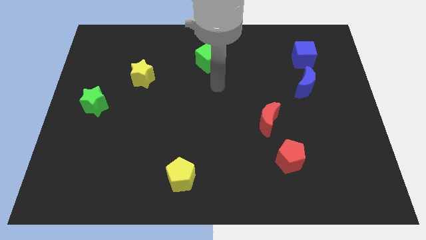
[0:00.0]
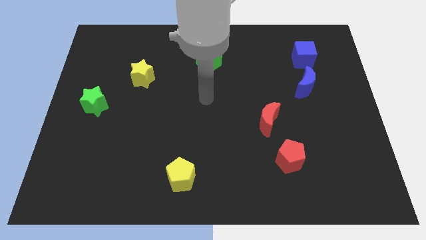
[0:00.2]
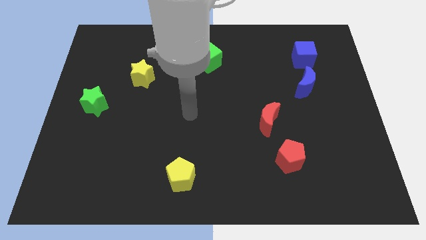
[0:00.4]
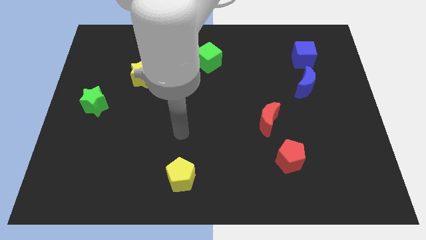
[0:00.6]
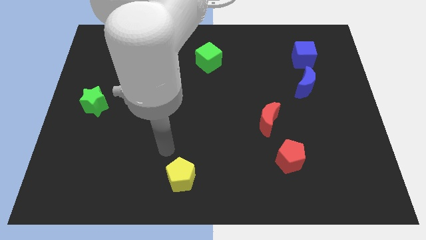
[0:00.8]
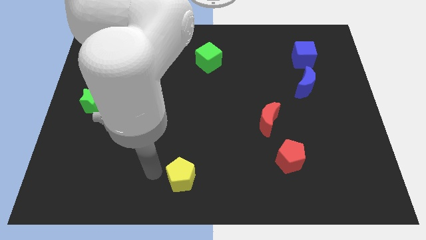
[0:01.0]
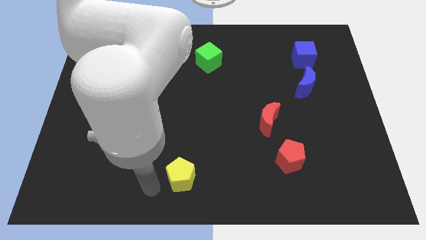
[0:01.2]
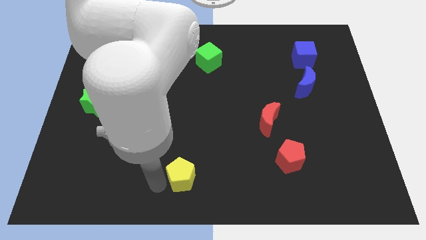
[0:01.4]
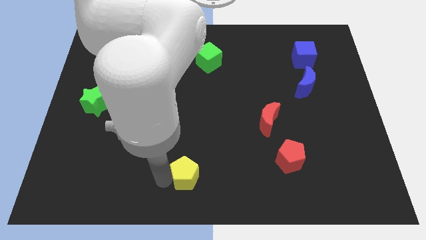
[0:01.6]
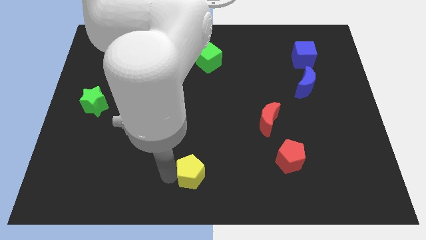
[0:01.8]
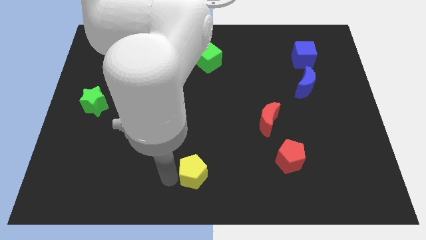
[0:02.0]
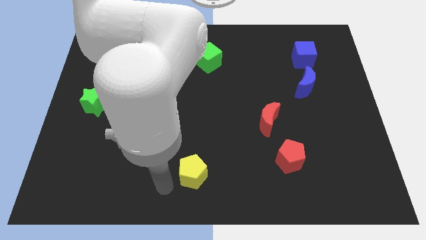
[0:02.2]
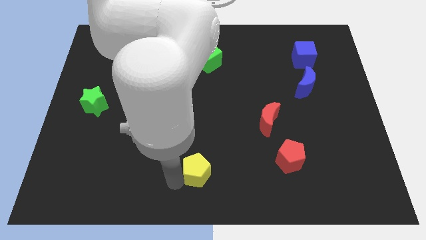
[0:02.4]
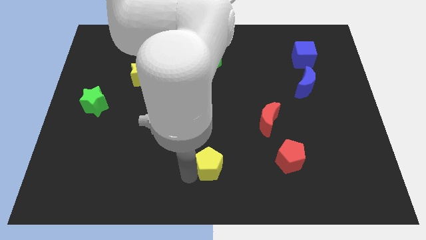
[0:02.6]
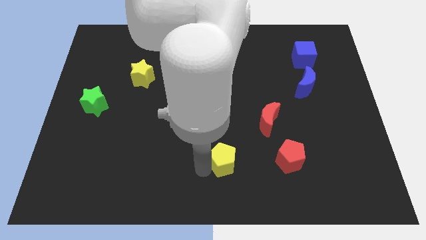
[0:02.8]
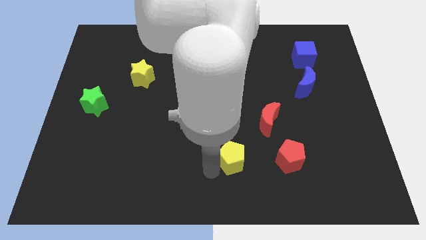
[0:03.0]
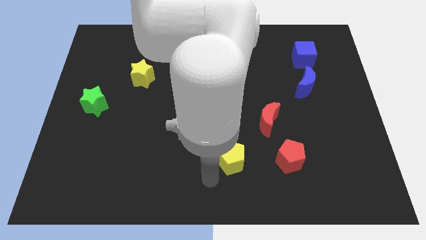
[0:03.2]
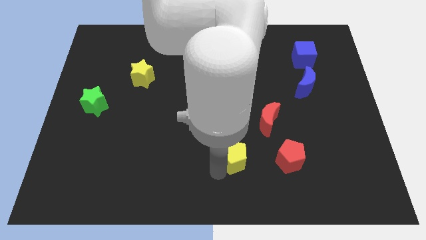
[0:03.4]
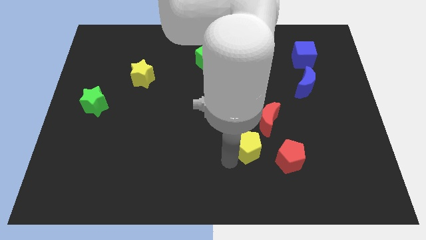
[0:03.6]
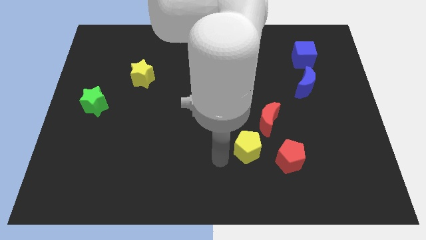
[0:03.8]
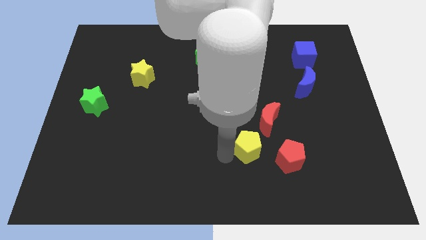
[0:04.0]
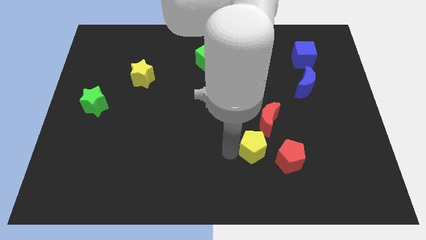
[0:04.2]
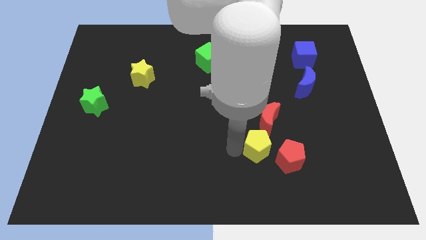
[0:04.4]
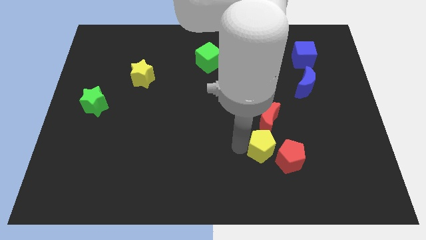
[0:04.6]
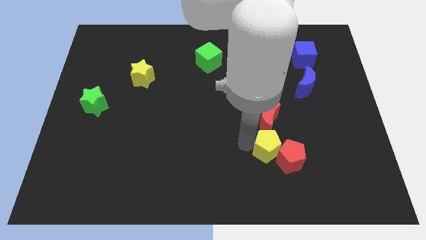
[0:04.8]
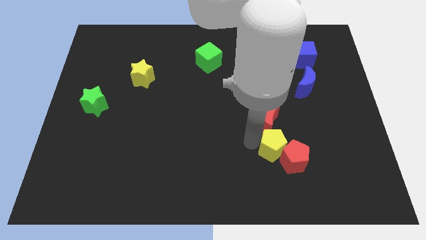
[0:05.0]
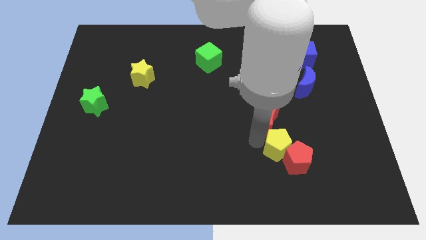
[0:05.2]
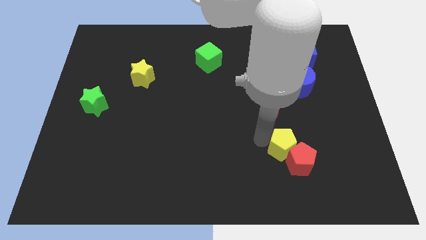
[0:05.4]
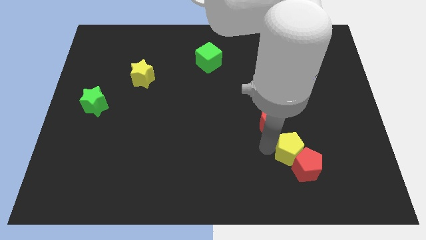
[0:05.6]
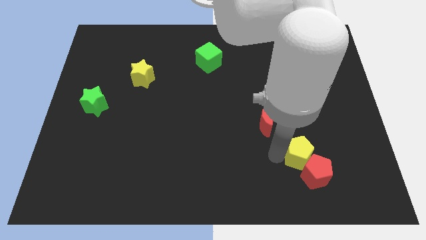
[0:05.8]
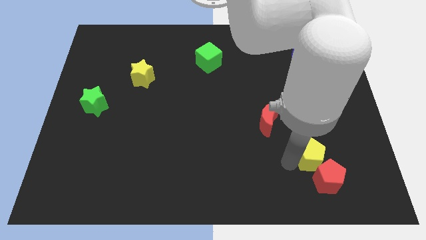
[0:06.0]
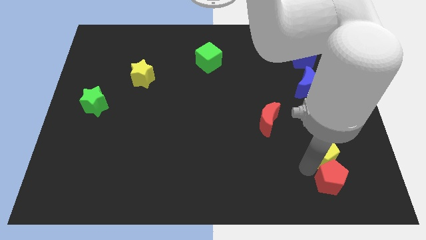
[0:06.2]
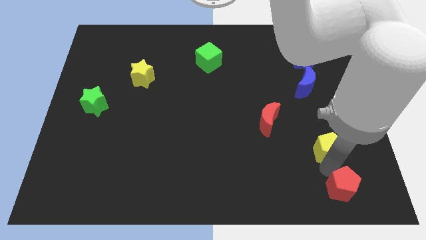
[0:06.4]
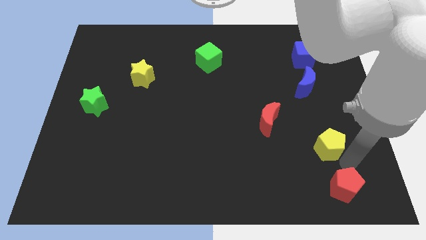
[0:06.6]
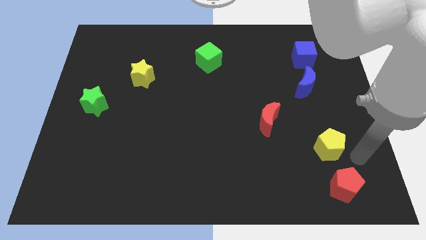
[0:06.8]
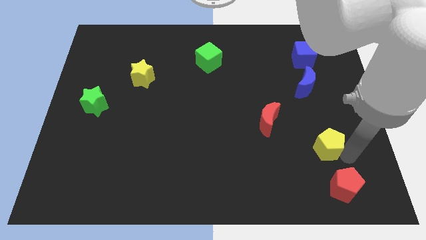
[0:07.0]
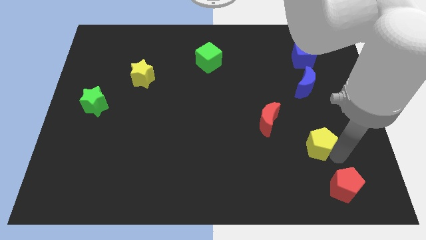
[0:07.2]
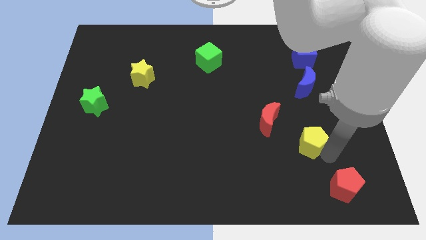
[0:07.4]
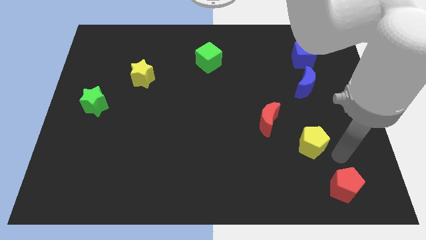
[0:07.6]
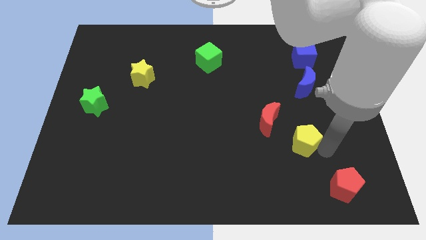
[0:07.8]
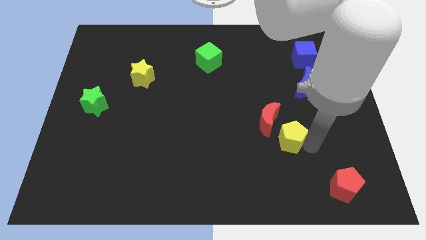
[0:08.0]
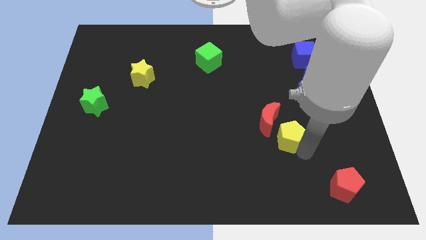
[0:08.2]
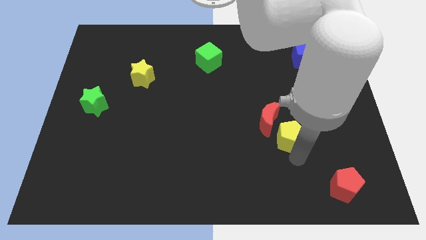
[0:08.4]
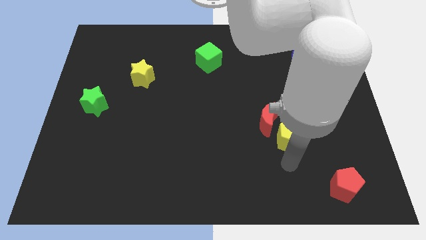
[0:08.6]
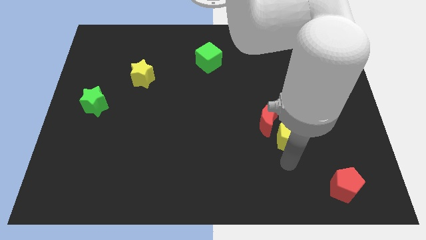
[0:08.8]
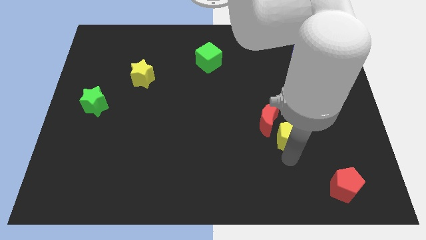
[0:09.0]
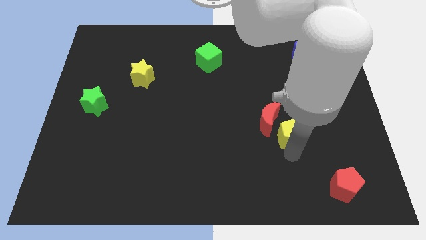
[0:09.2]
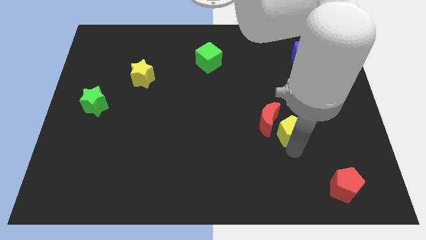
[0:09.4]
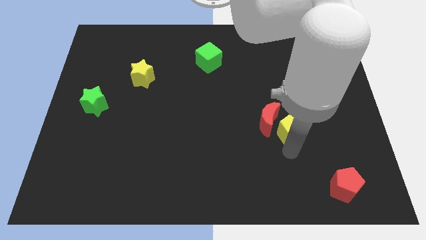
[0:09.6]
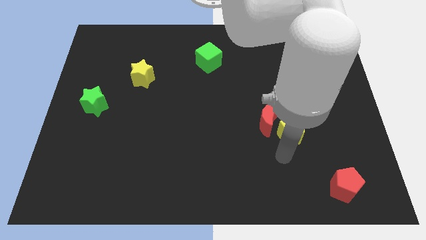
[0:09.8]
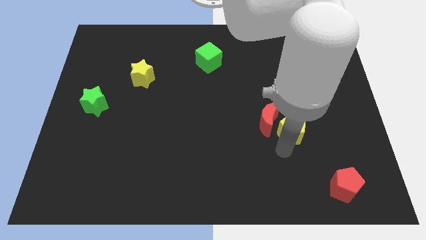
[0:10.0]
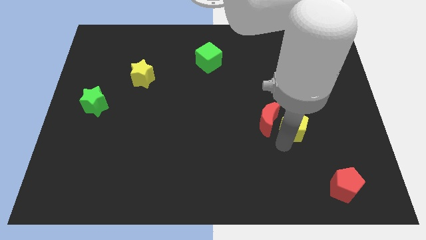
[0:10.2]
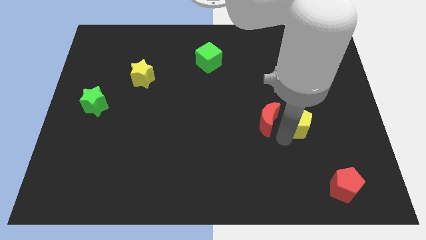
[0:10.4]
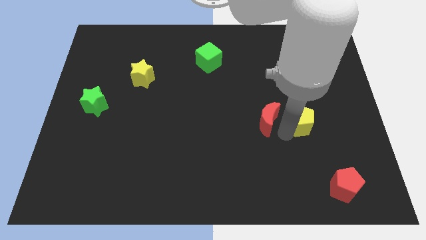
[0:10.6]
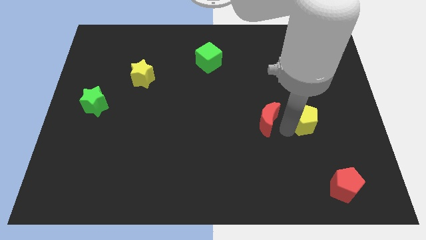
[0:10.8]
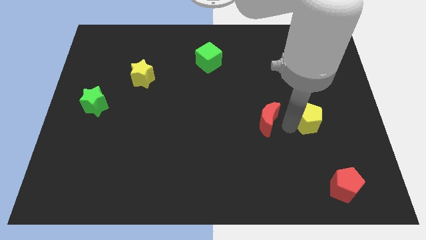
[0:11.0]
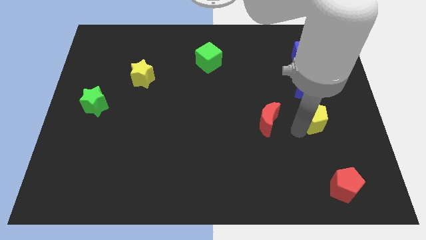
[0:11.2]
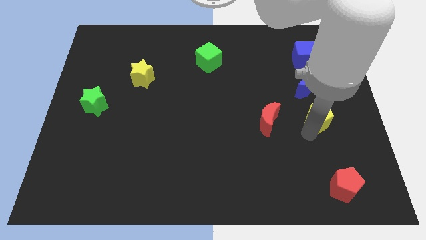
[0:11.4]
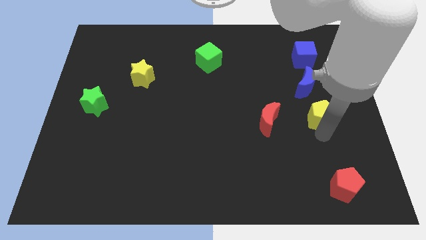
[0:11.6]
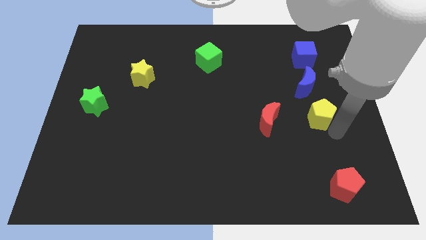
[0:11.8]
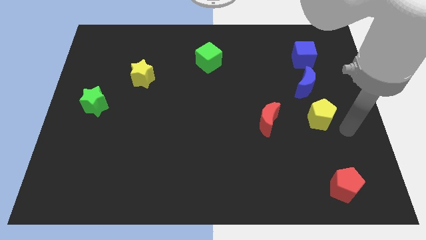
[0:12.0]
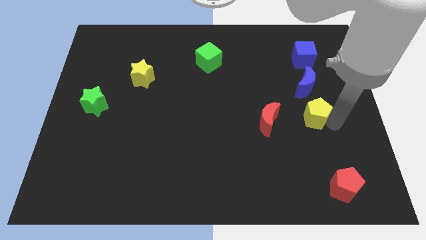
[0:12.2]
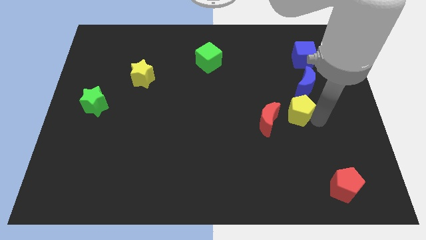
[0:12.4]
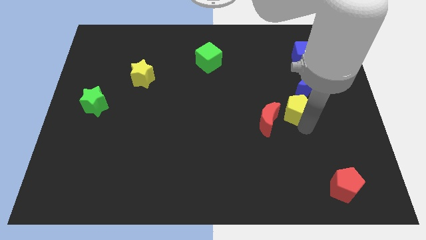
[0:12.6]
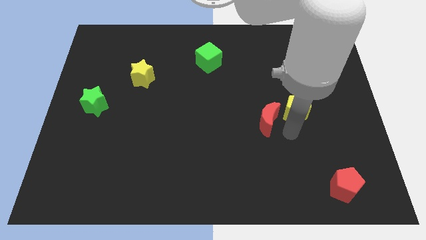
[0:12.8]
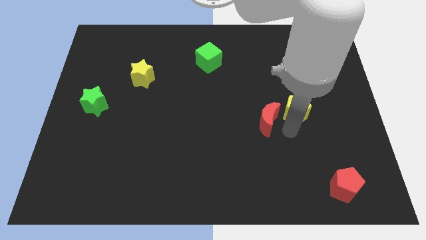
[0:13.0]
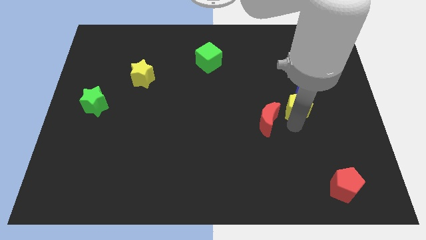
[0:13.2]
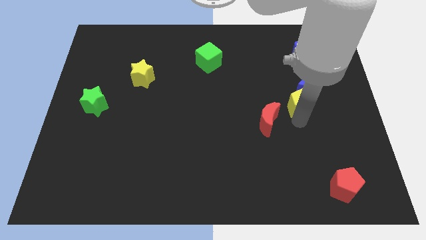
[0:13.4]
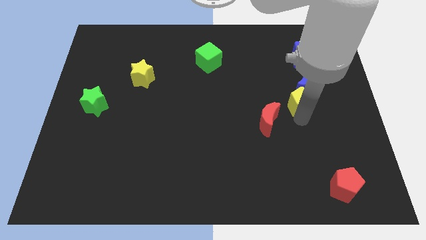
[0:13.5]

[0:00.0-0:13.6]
put the yellow pentagon next to the blue moon

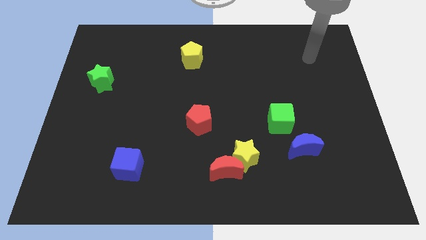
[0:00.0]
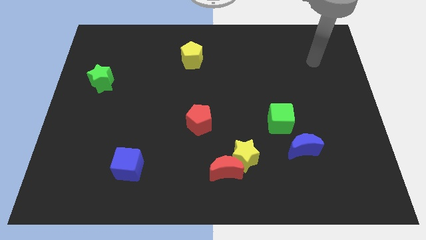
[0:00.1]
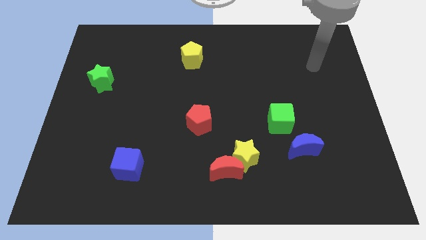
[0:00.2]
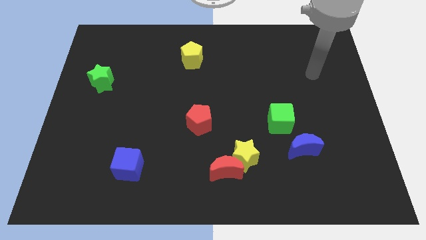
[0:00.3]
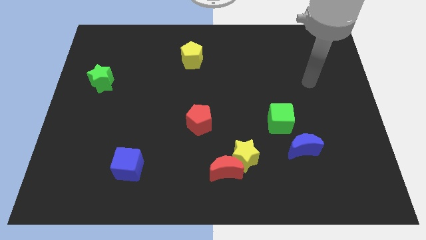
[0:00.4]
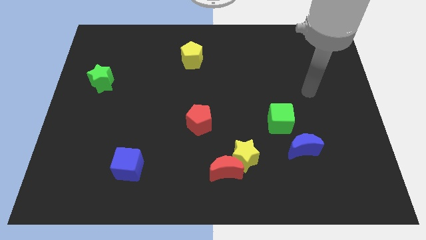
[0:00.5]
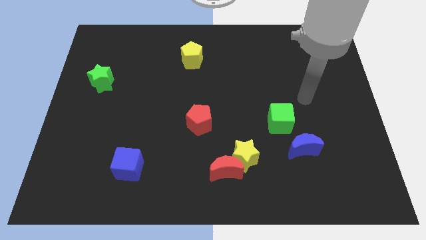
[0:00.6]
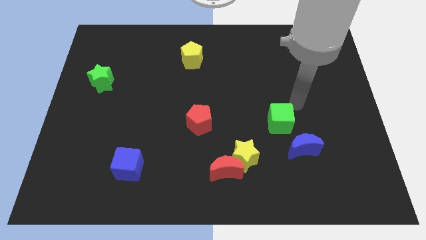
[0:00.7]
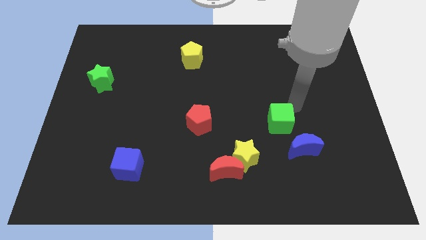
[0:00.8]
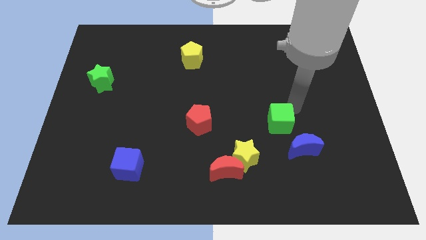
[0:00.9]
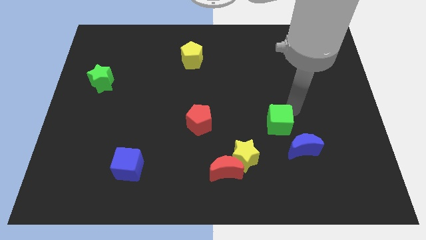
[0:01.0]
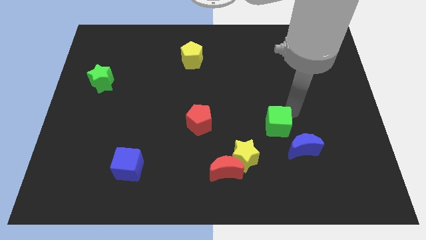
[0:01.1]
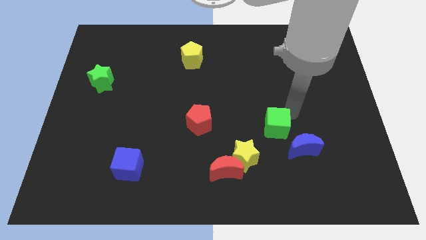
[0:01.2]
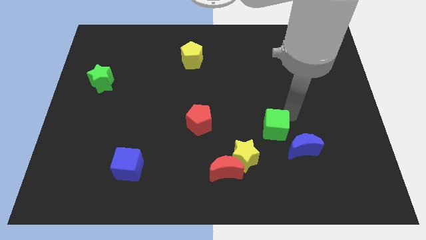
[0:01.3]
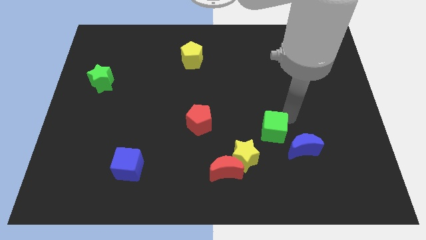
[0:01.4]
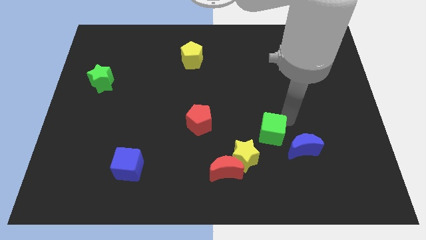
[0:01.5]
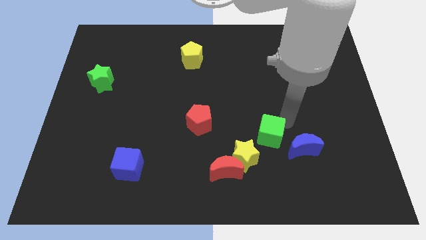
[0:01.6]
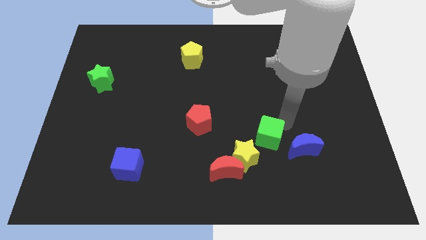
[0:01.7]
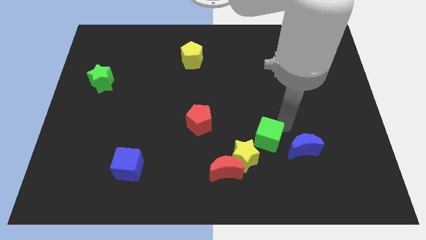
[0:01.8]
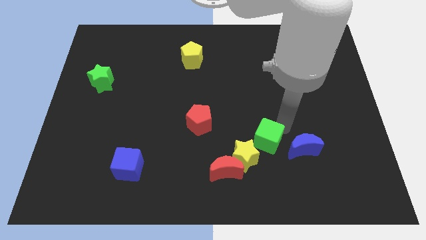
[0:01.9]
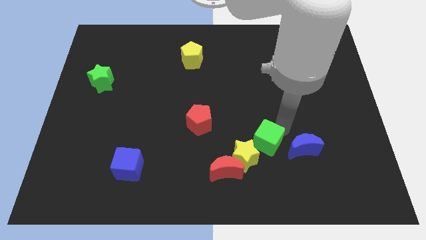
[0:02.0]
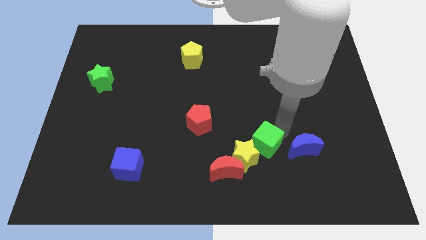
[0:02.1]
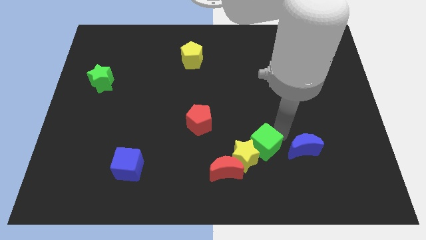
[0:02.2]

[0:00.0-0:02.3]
move the green cube towards the yellow star
